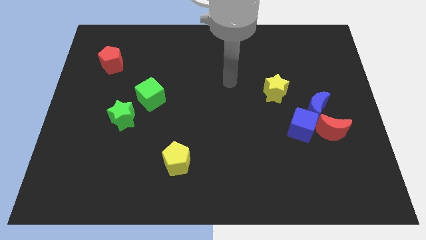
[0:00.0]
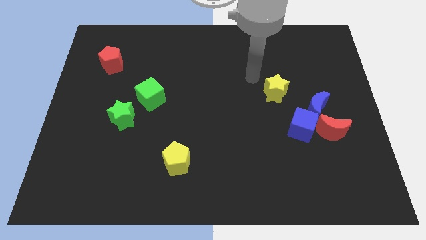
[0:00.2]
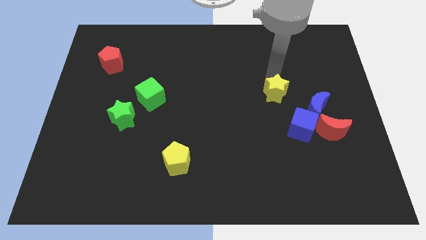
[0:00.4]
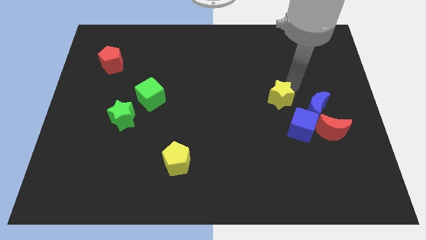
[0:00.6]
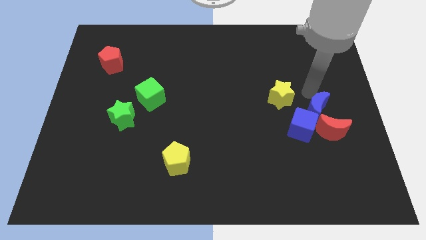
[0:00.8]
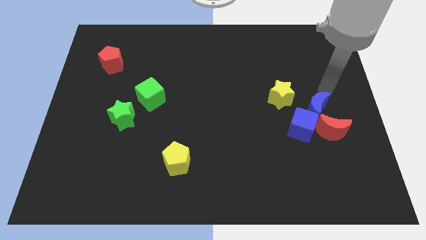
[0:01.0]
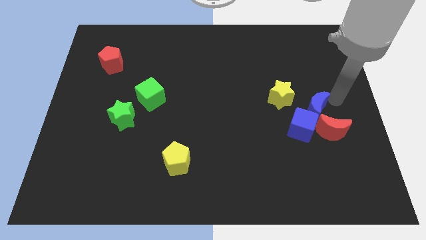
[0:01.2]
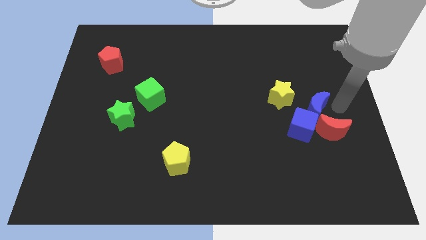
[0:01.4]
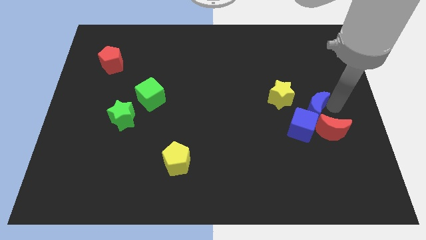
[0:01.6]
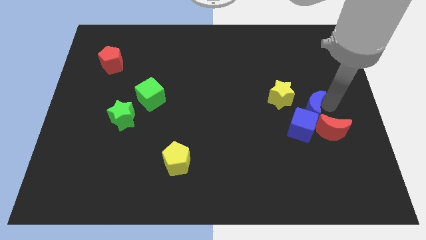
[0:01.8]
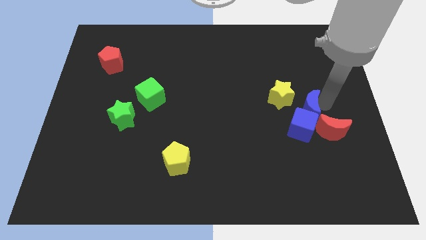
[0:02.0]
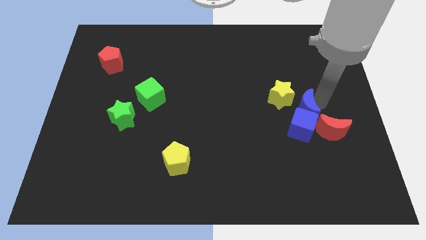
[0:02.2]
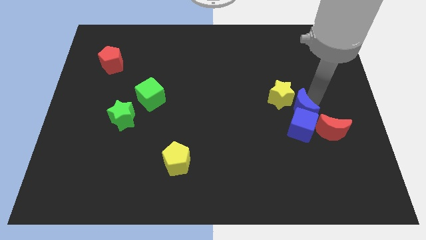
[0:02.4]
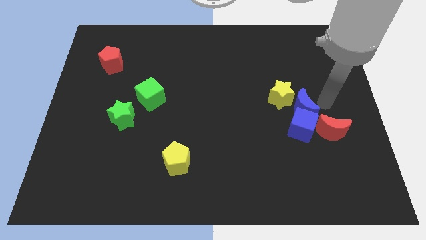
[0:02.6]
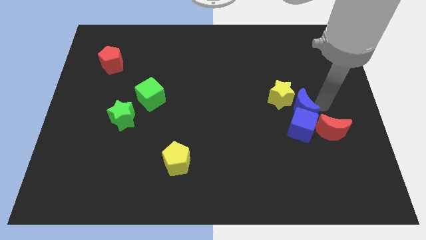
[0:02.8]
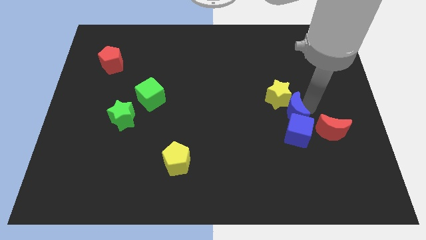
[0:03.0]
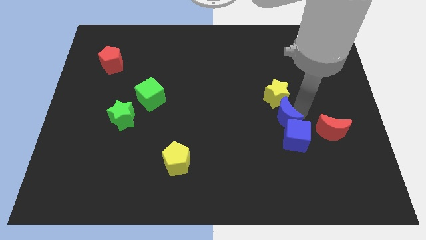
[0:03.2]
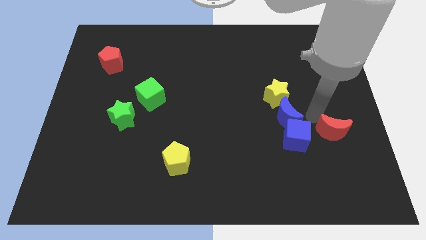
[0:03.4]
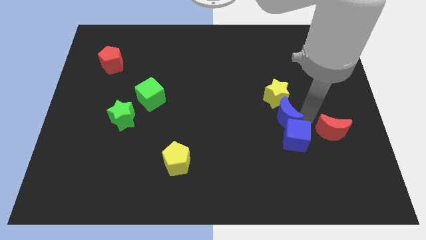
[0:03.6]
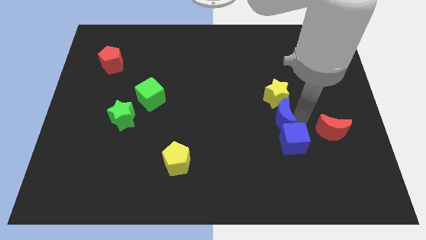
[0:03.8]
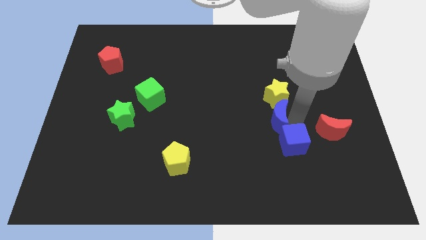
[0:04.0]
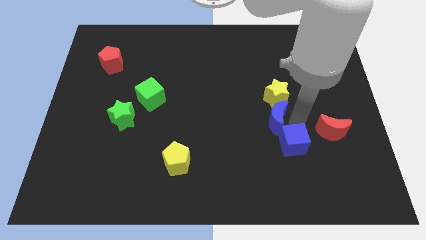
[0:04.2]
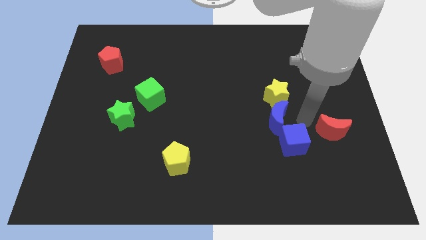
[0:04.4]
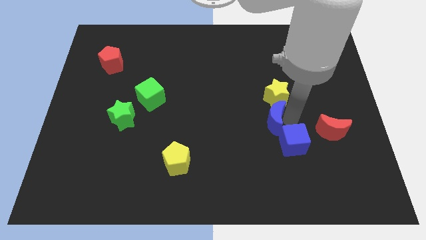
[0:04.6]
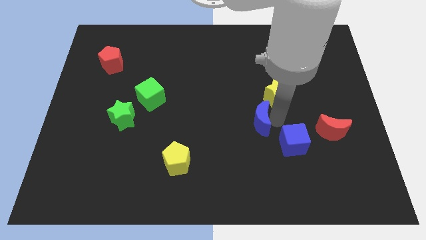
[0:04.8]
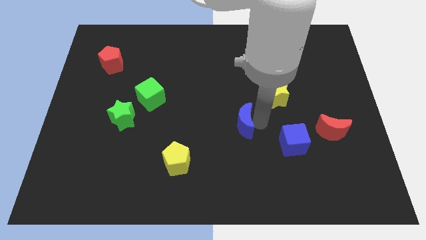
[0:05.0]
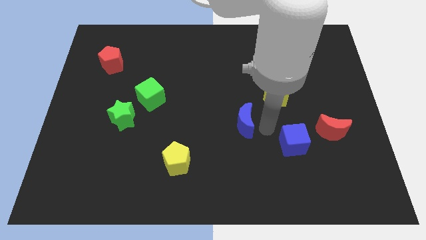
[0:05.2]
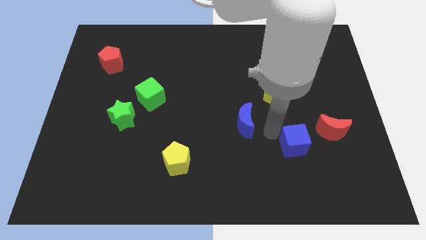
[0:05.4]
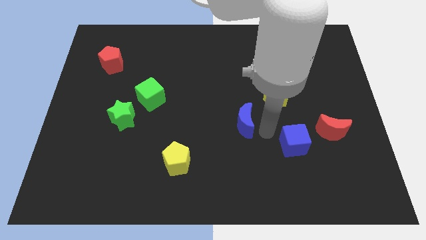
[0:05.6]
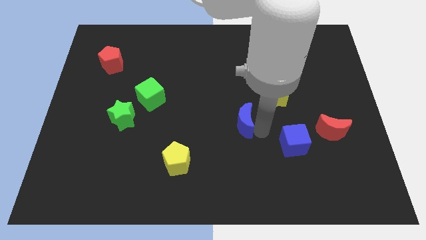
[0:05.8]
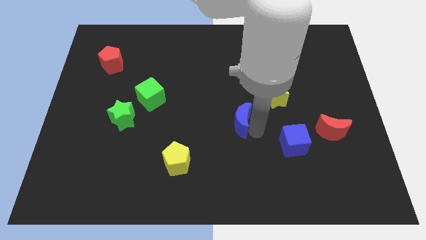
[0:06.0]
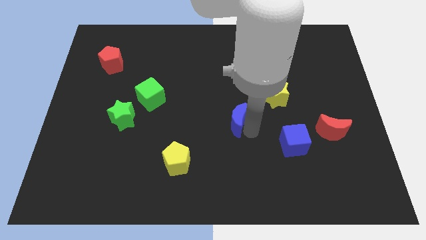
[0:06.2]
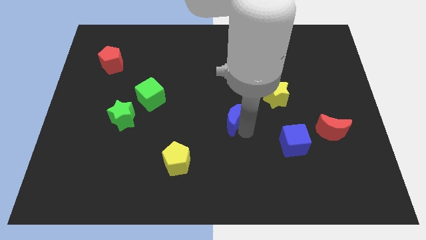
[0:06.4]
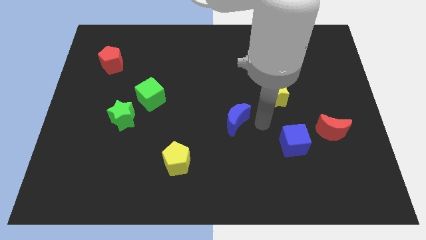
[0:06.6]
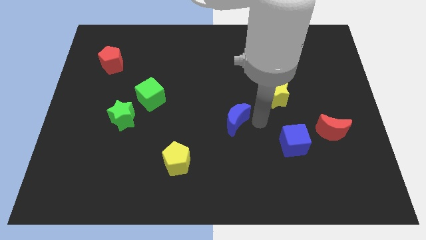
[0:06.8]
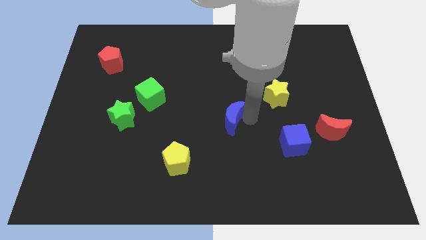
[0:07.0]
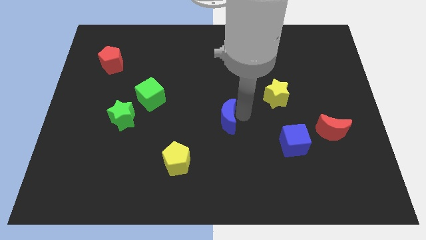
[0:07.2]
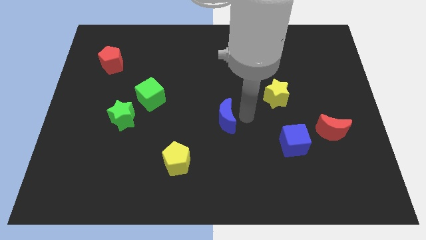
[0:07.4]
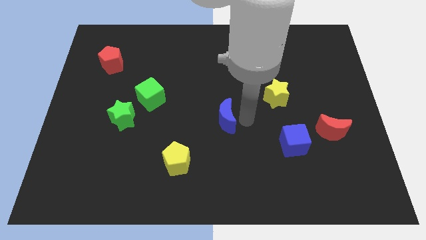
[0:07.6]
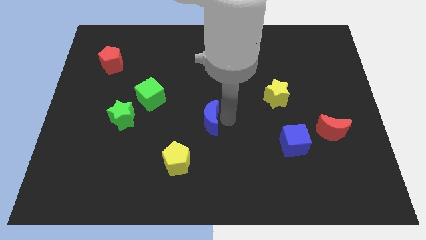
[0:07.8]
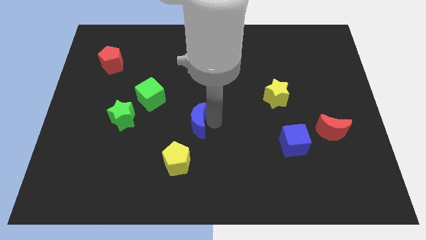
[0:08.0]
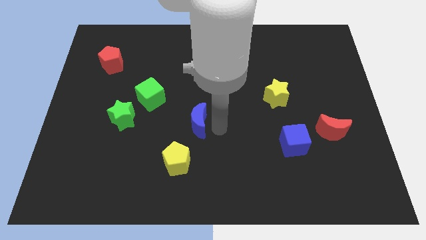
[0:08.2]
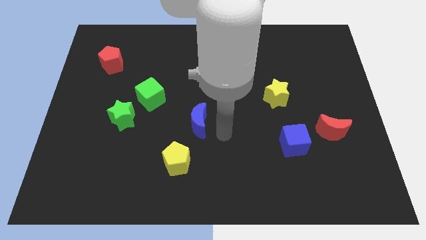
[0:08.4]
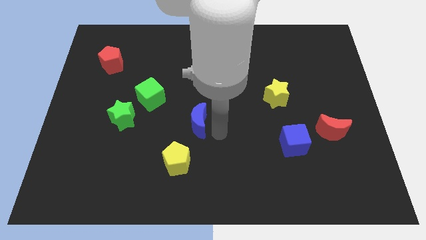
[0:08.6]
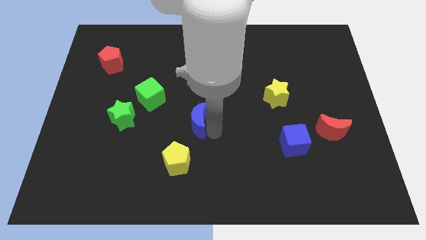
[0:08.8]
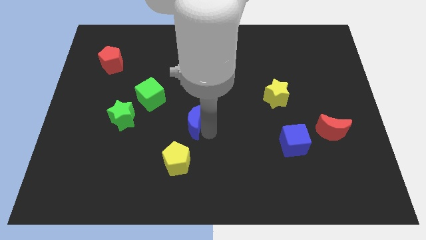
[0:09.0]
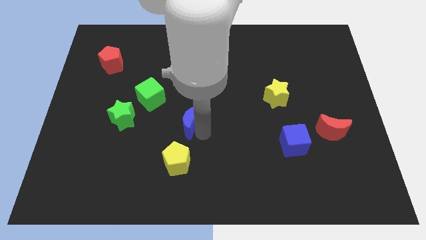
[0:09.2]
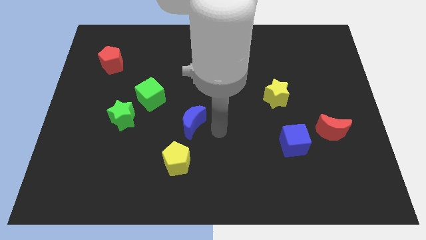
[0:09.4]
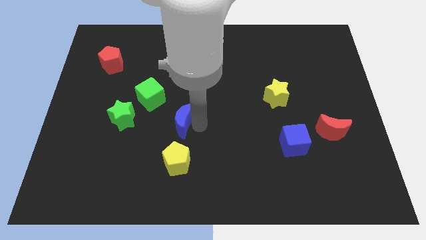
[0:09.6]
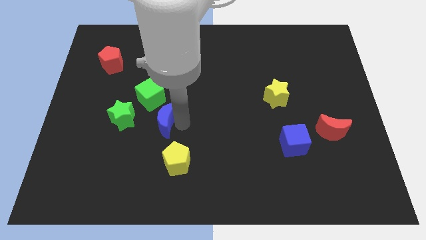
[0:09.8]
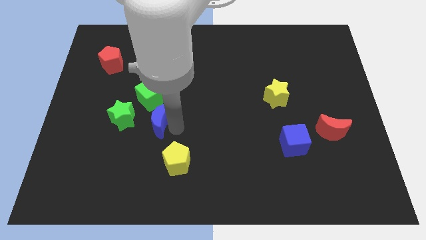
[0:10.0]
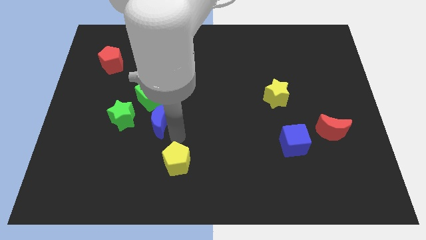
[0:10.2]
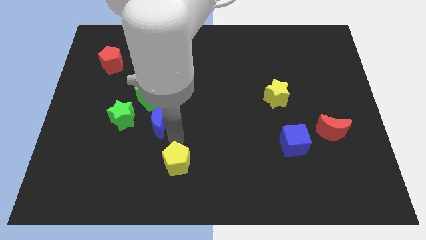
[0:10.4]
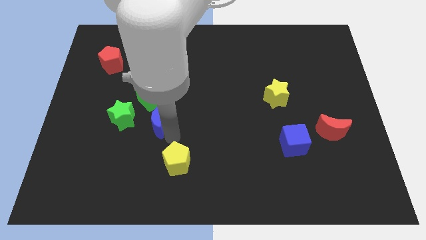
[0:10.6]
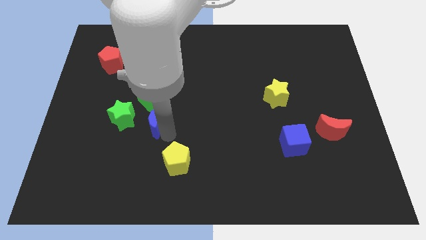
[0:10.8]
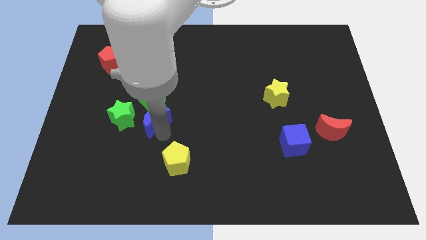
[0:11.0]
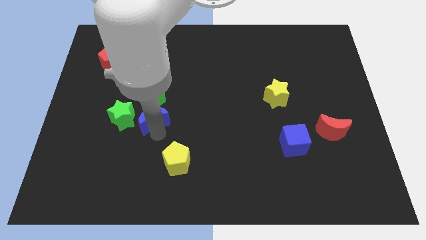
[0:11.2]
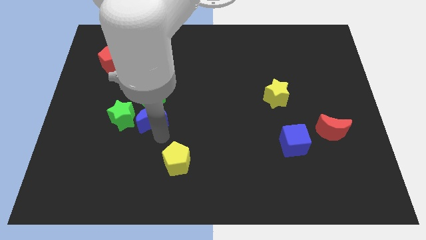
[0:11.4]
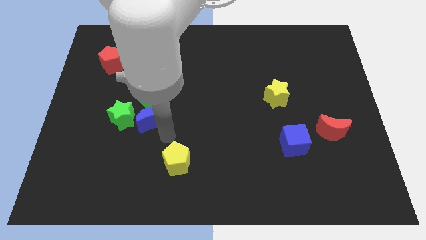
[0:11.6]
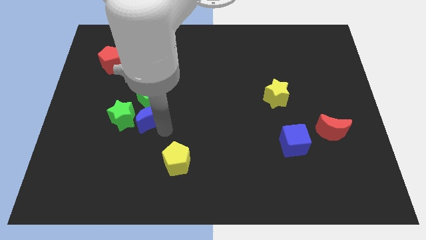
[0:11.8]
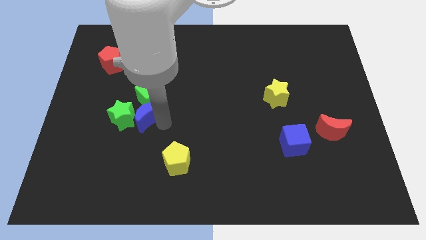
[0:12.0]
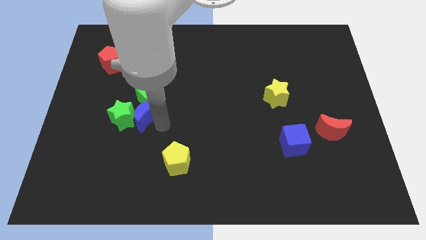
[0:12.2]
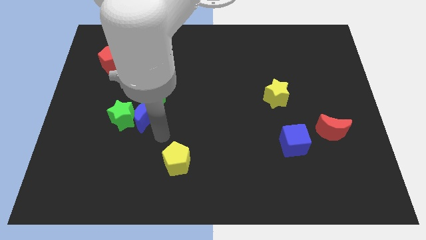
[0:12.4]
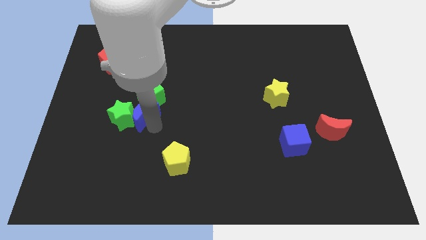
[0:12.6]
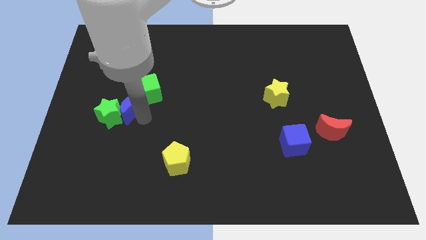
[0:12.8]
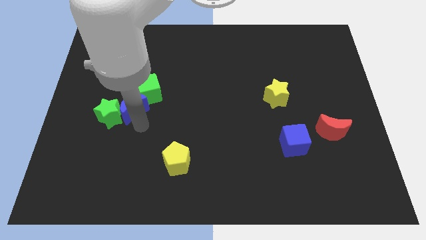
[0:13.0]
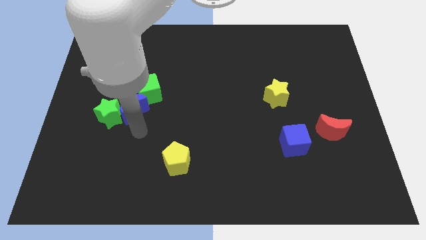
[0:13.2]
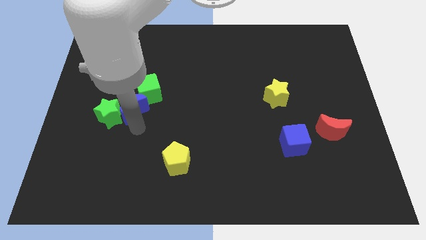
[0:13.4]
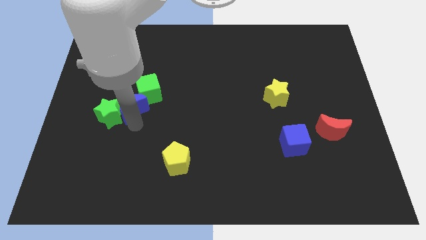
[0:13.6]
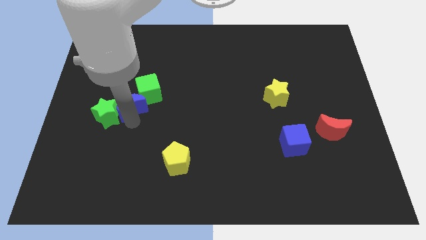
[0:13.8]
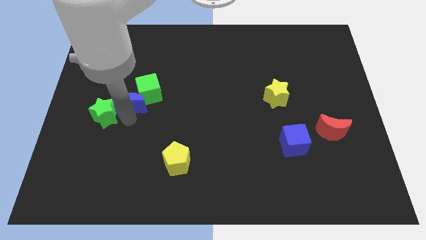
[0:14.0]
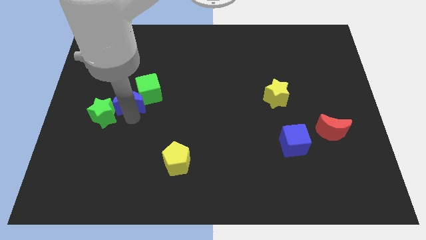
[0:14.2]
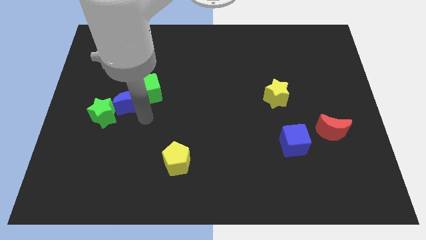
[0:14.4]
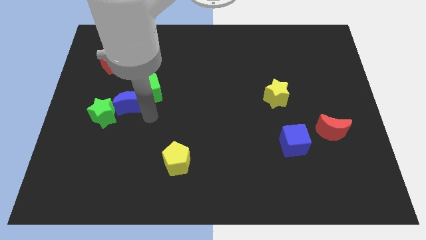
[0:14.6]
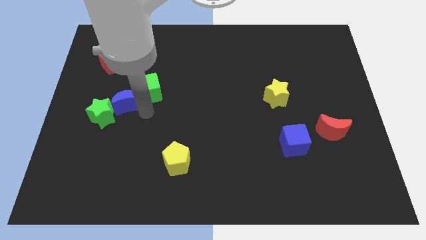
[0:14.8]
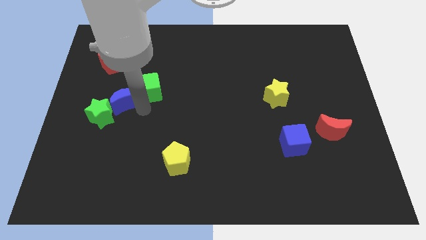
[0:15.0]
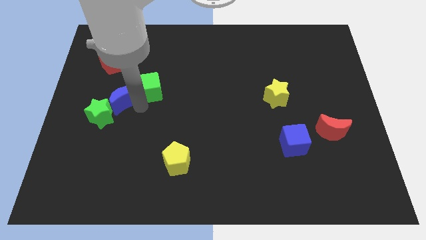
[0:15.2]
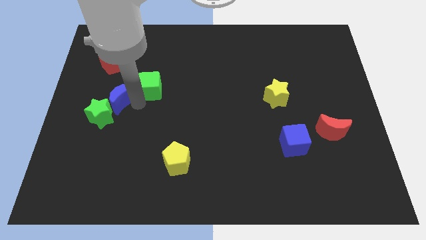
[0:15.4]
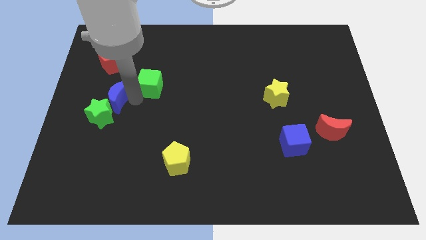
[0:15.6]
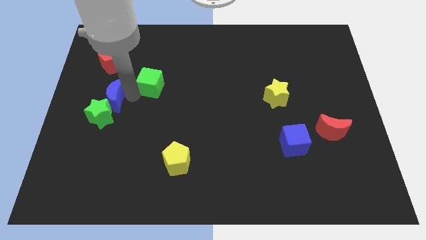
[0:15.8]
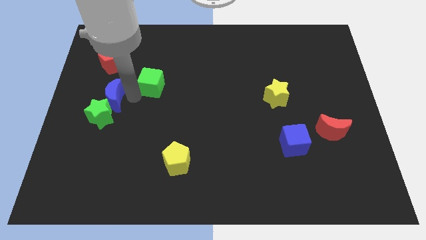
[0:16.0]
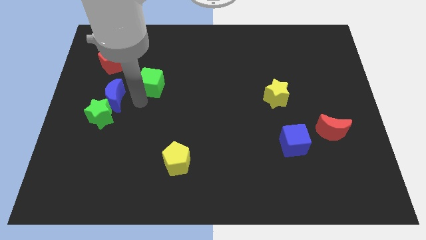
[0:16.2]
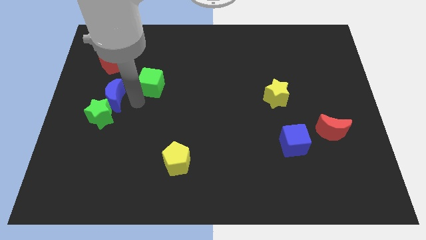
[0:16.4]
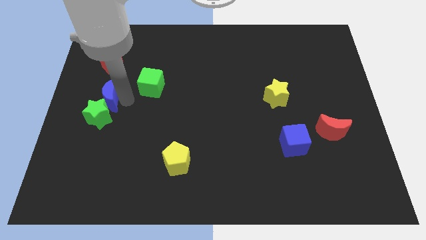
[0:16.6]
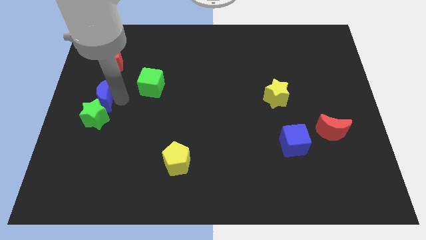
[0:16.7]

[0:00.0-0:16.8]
put the blue moon to the center left
